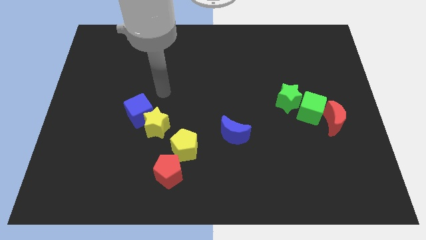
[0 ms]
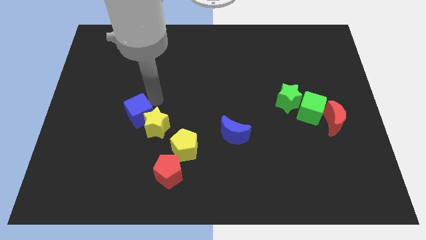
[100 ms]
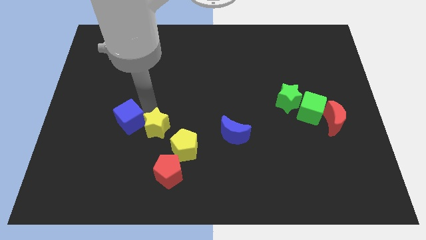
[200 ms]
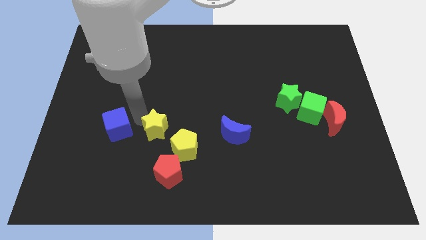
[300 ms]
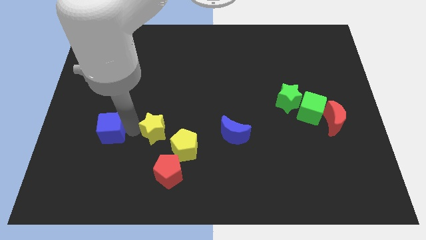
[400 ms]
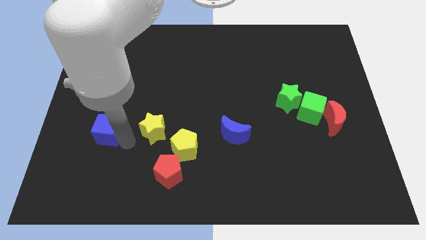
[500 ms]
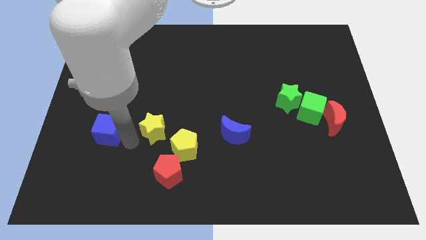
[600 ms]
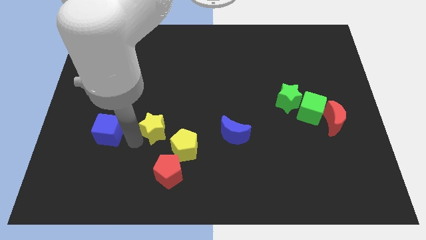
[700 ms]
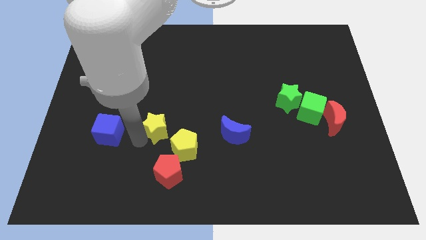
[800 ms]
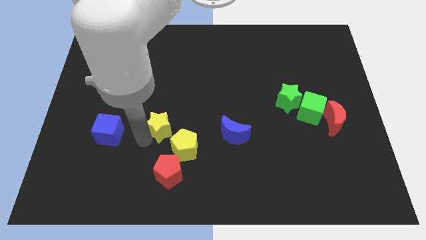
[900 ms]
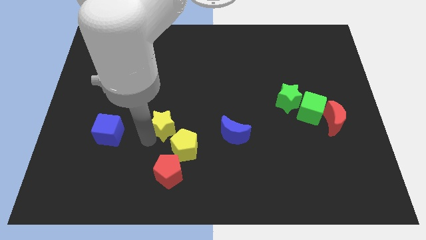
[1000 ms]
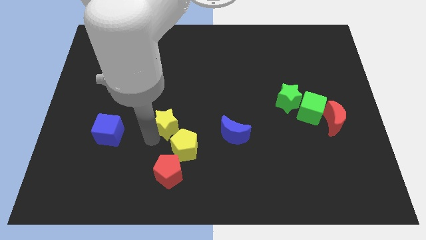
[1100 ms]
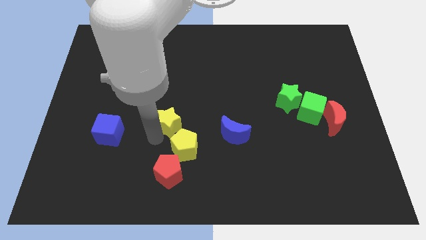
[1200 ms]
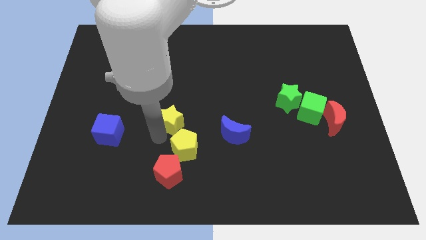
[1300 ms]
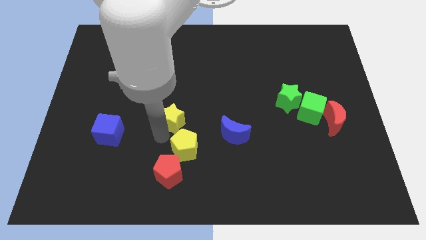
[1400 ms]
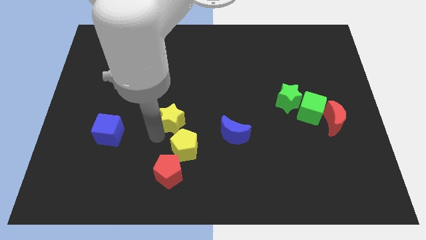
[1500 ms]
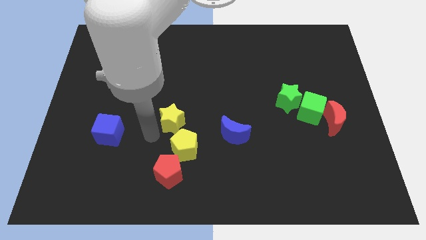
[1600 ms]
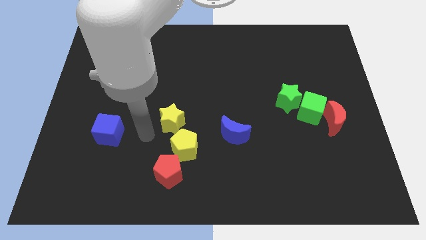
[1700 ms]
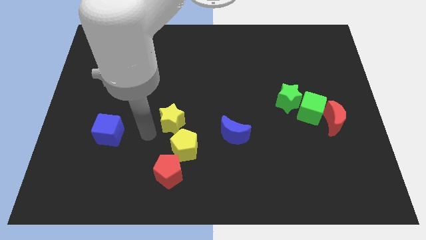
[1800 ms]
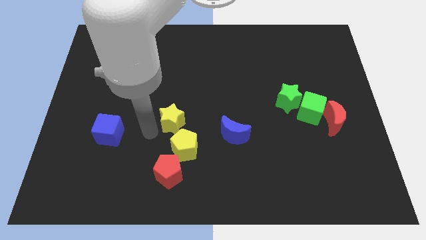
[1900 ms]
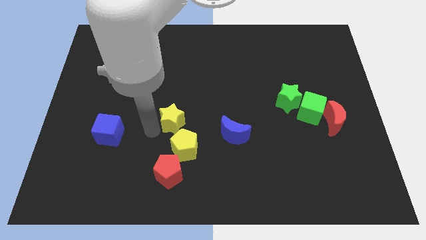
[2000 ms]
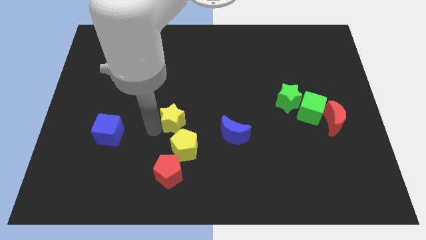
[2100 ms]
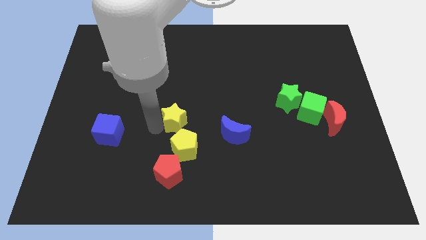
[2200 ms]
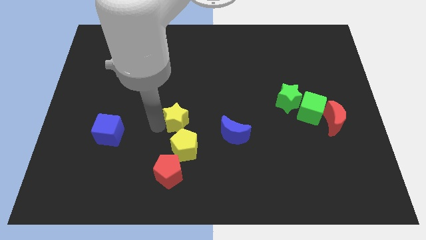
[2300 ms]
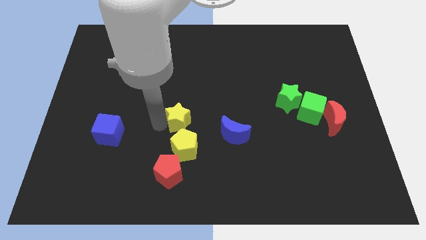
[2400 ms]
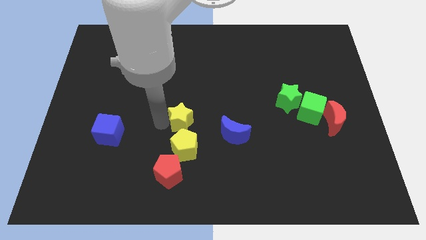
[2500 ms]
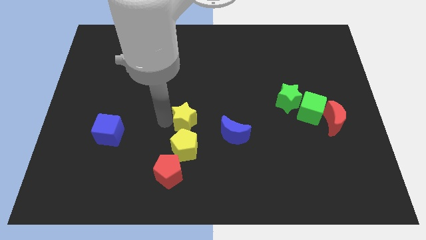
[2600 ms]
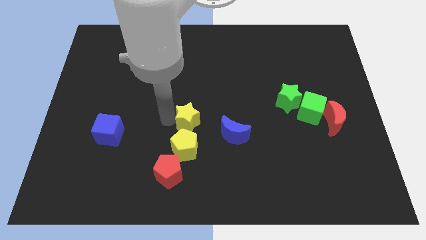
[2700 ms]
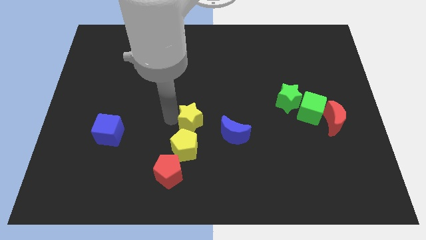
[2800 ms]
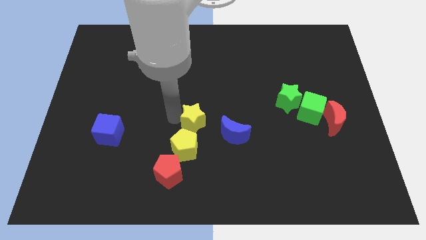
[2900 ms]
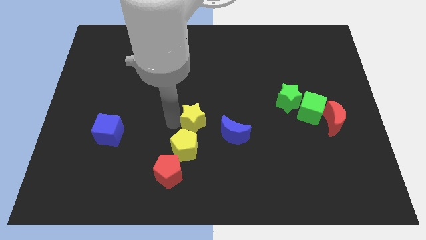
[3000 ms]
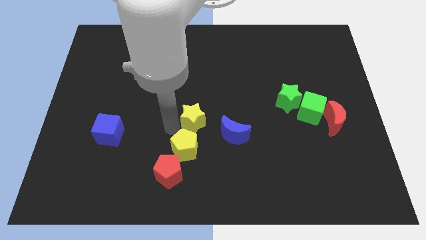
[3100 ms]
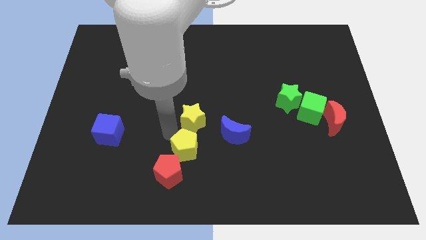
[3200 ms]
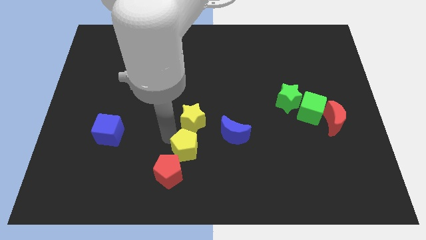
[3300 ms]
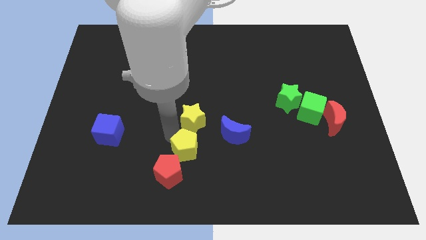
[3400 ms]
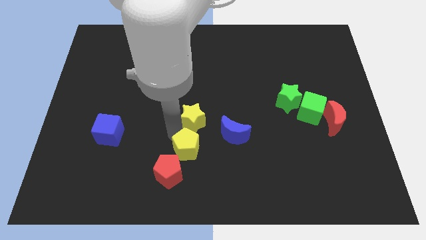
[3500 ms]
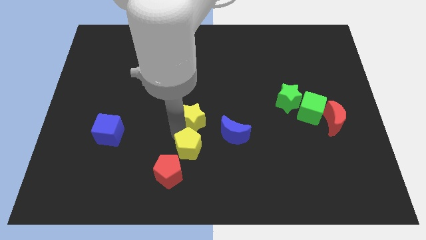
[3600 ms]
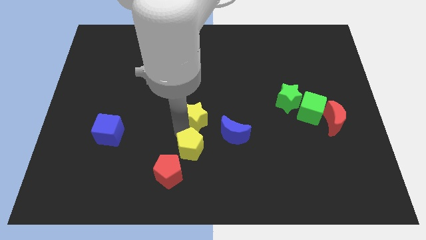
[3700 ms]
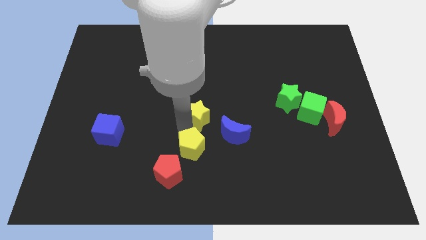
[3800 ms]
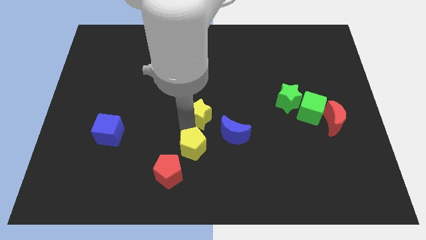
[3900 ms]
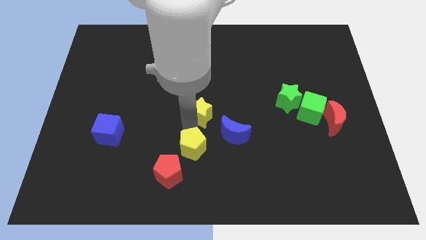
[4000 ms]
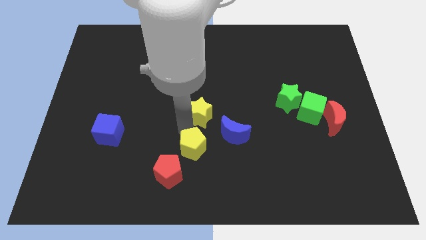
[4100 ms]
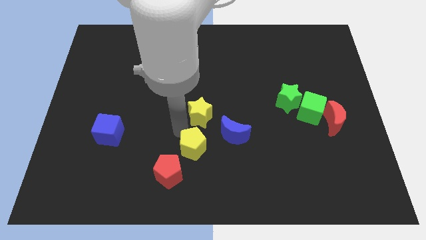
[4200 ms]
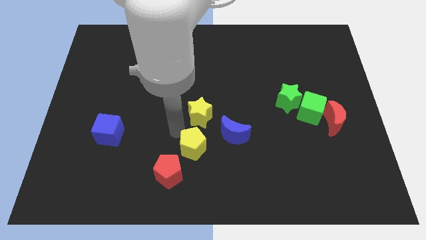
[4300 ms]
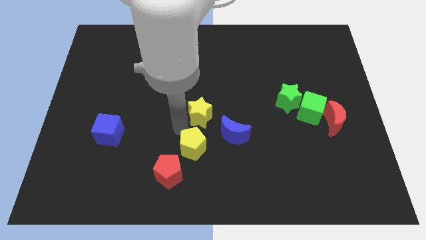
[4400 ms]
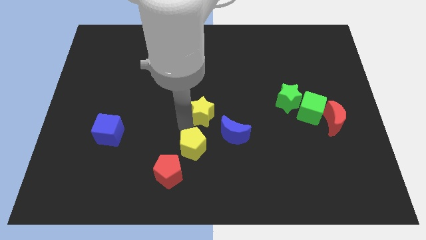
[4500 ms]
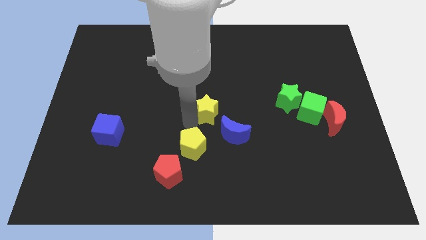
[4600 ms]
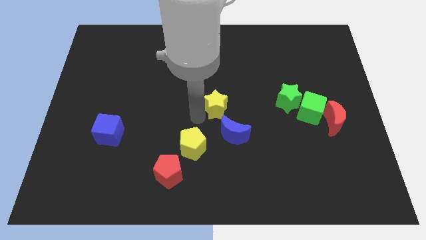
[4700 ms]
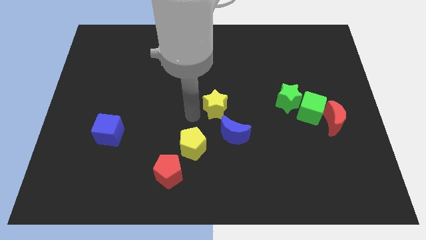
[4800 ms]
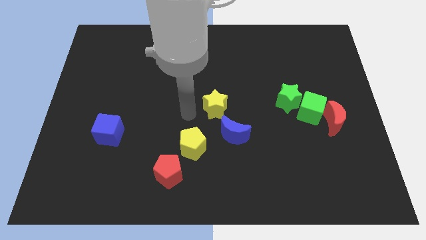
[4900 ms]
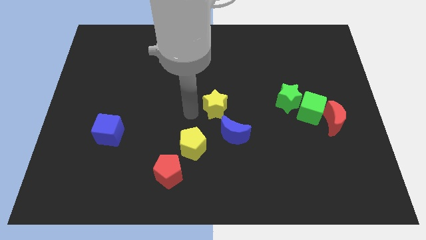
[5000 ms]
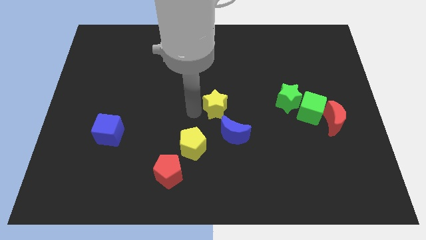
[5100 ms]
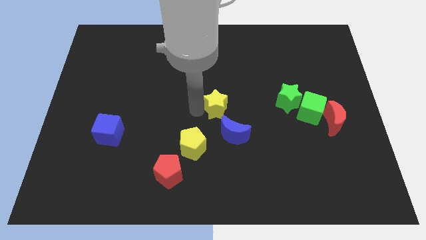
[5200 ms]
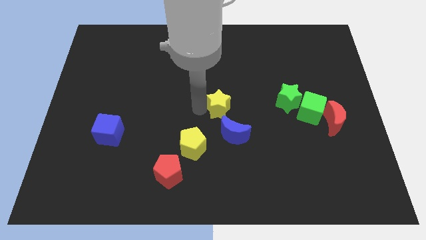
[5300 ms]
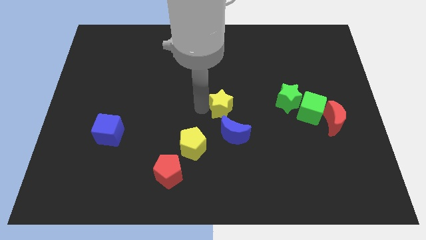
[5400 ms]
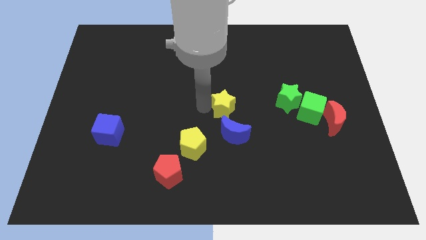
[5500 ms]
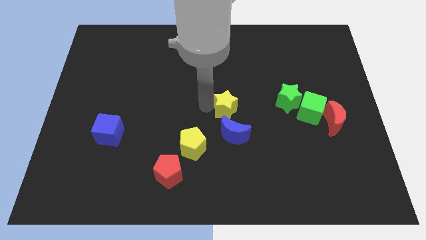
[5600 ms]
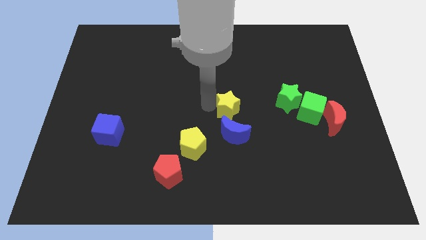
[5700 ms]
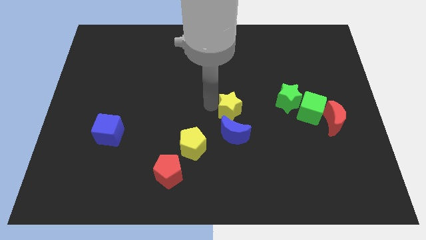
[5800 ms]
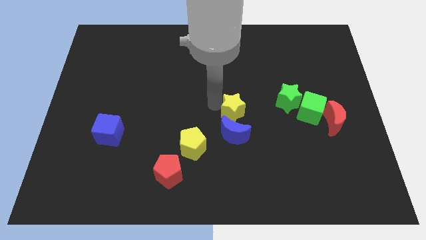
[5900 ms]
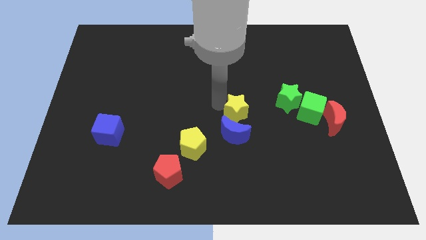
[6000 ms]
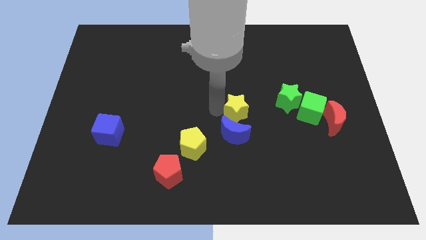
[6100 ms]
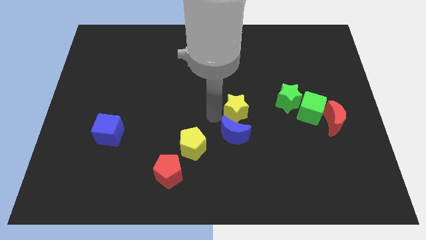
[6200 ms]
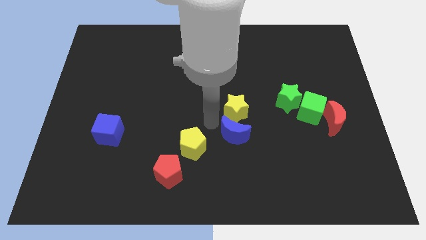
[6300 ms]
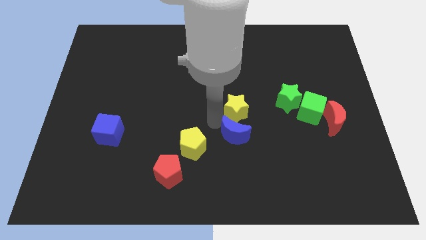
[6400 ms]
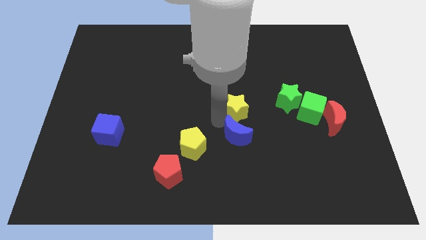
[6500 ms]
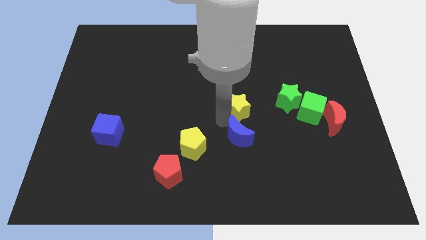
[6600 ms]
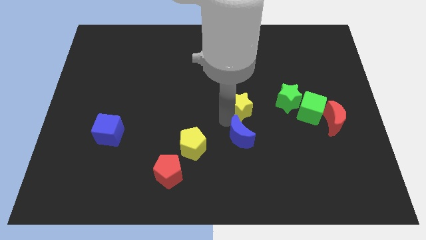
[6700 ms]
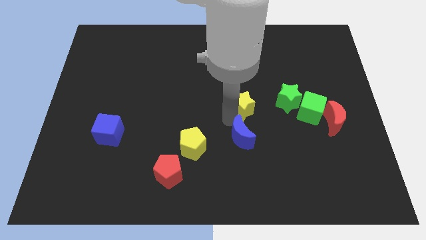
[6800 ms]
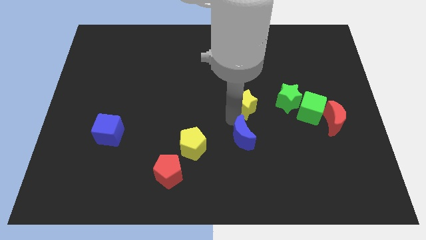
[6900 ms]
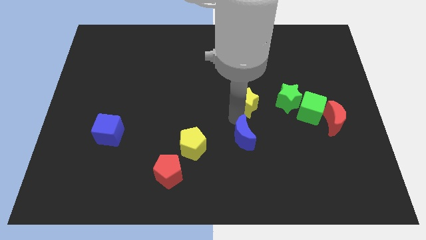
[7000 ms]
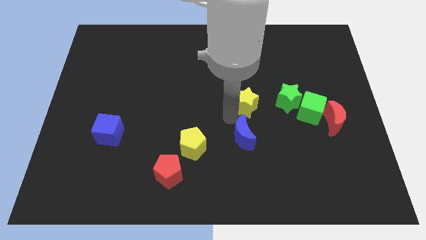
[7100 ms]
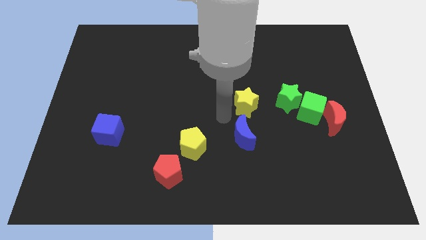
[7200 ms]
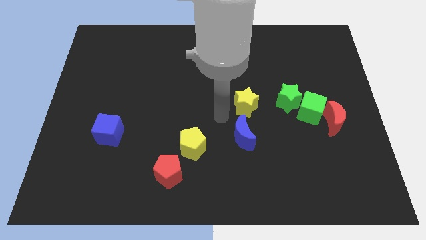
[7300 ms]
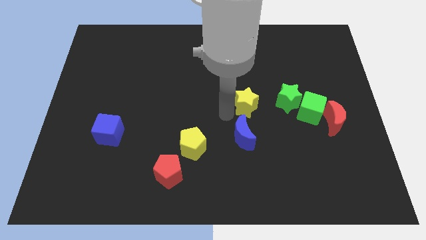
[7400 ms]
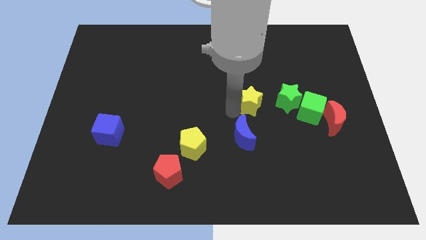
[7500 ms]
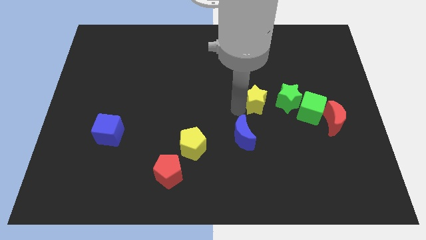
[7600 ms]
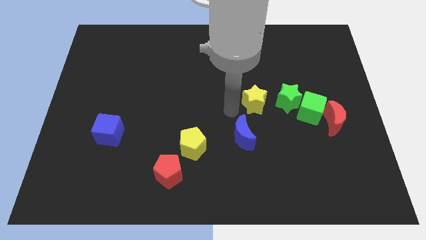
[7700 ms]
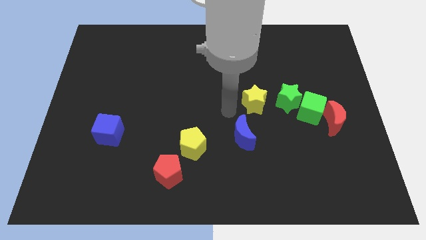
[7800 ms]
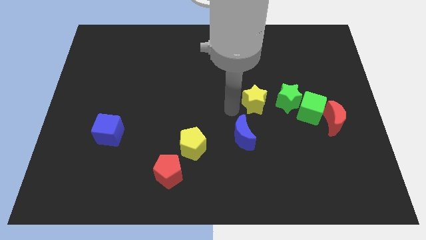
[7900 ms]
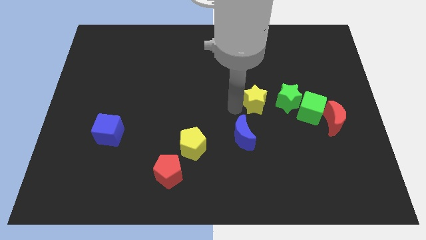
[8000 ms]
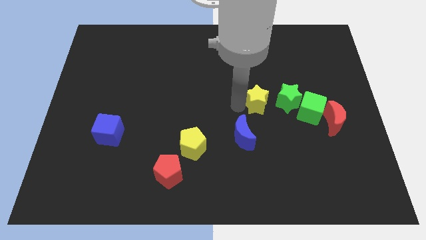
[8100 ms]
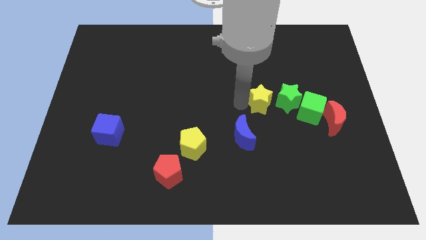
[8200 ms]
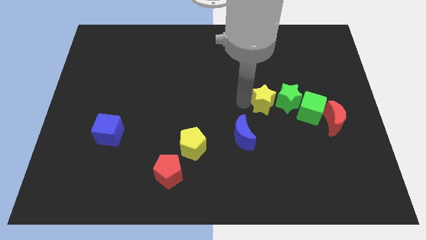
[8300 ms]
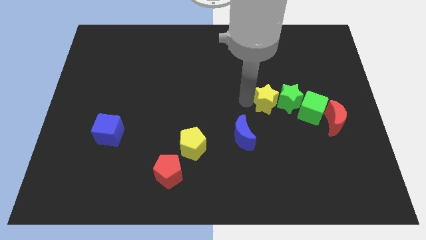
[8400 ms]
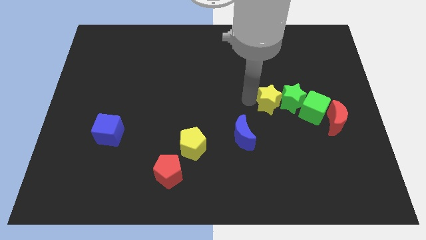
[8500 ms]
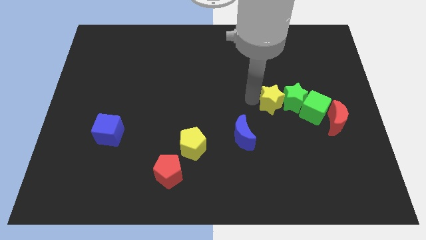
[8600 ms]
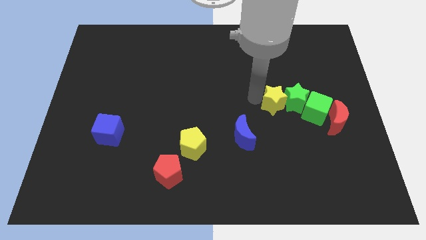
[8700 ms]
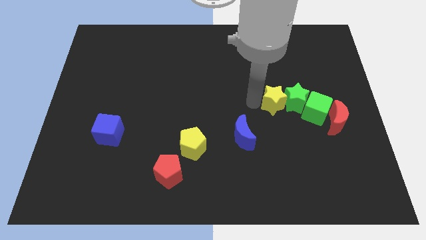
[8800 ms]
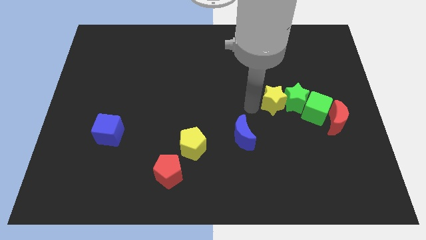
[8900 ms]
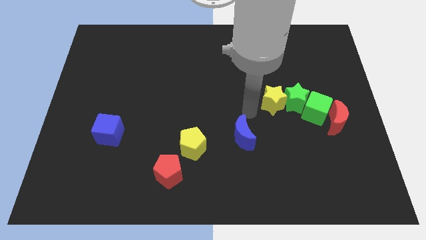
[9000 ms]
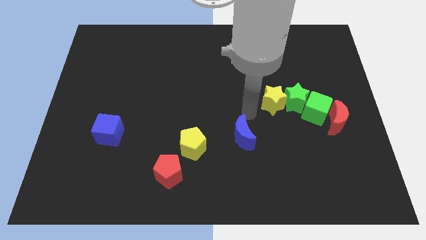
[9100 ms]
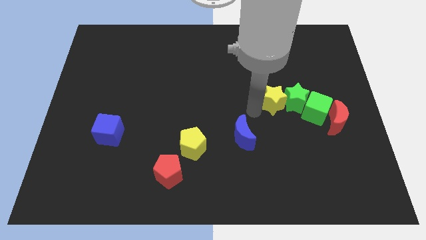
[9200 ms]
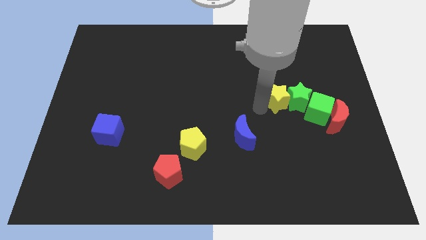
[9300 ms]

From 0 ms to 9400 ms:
slide the yellow star to the top left of the green cube
